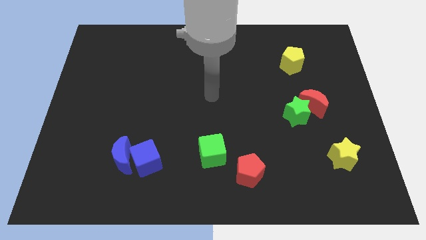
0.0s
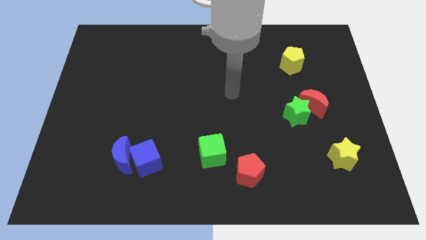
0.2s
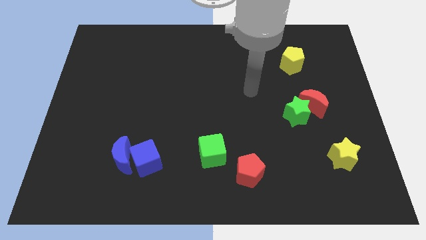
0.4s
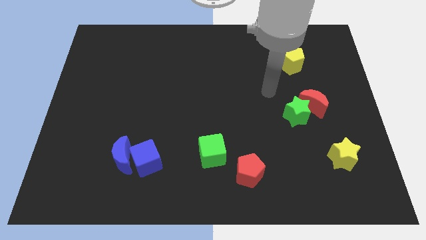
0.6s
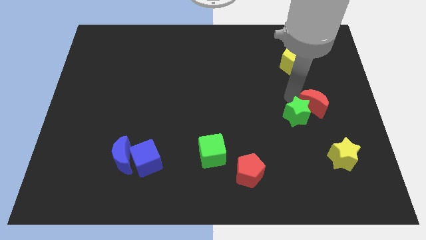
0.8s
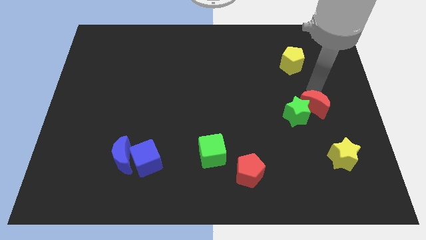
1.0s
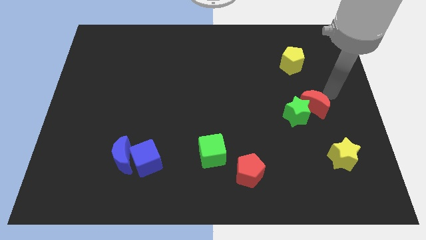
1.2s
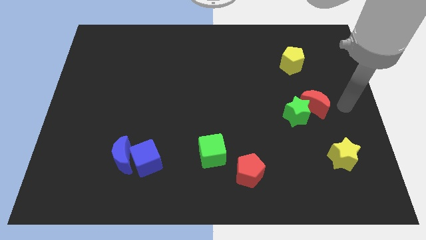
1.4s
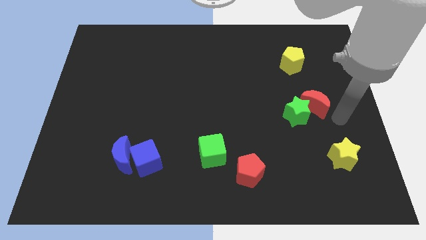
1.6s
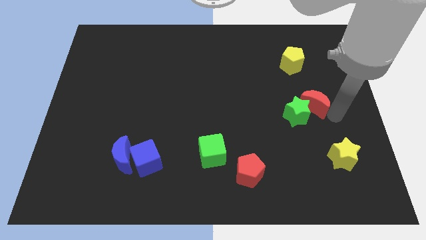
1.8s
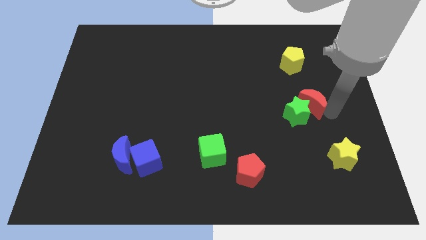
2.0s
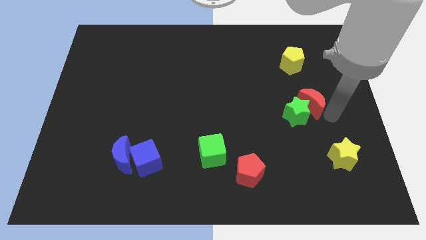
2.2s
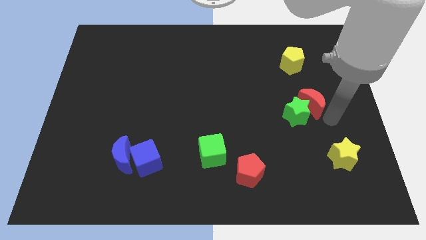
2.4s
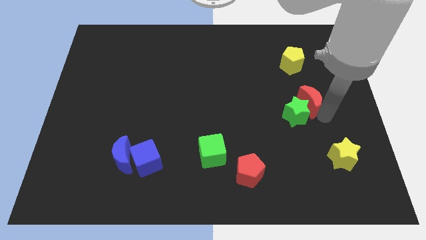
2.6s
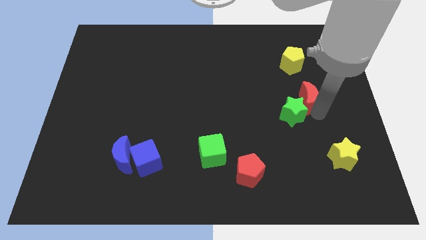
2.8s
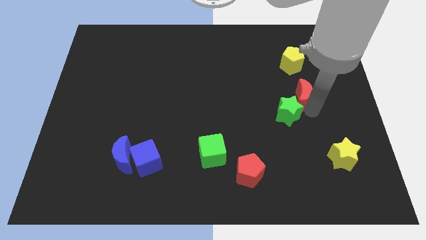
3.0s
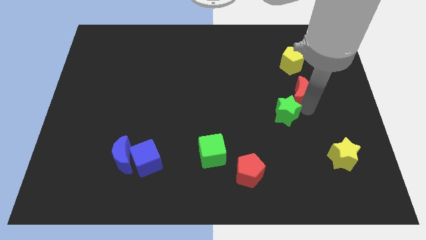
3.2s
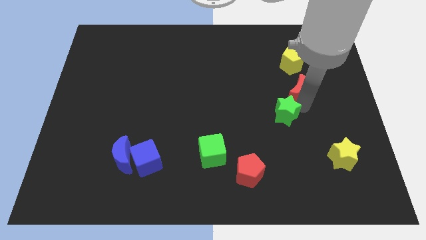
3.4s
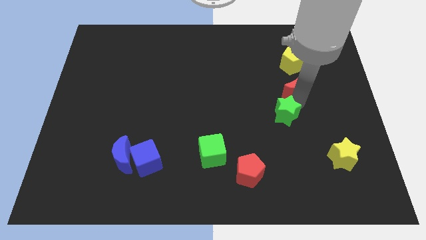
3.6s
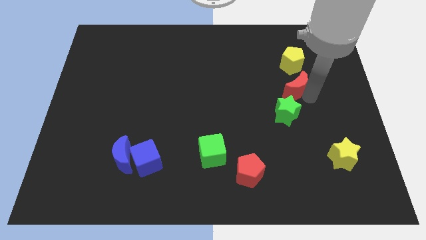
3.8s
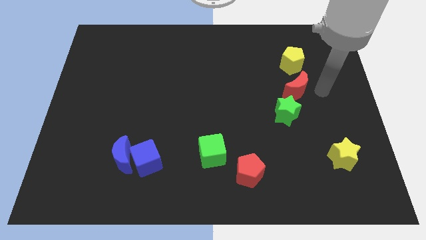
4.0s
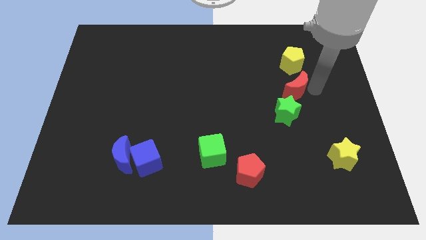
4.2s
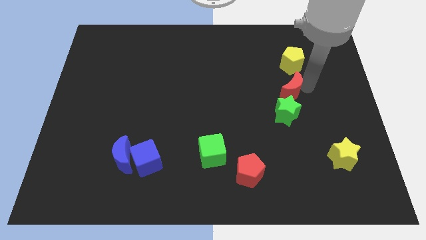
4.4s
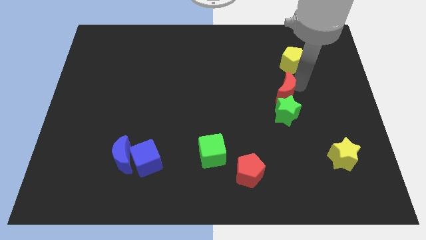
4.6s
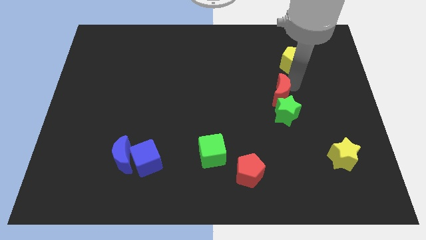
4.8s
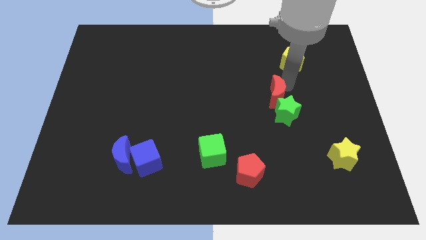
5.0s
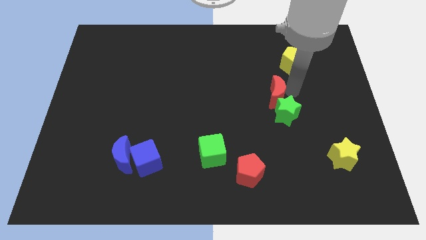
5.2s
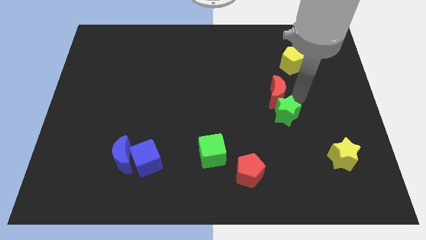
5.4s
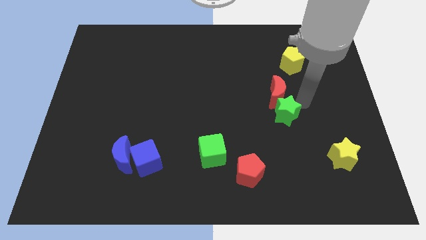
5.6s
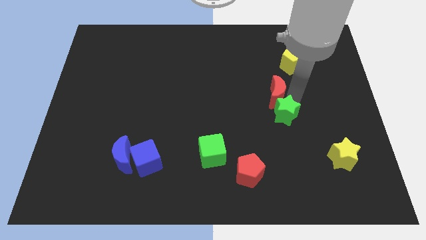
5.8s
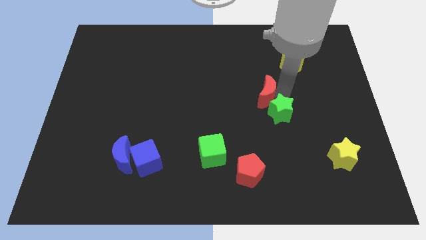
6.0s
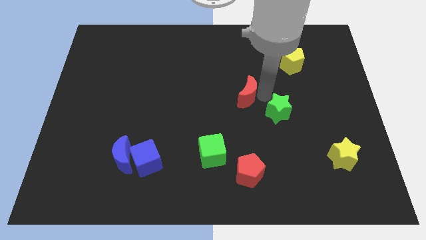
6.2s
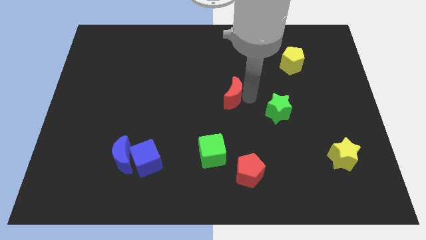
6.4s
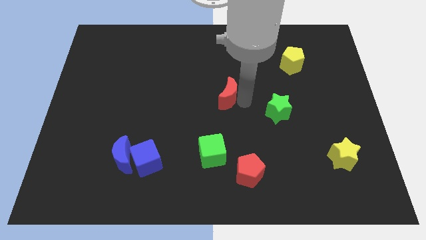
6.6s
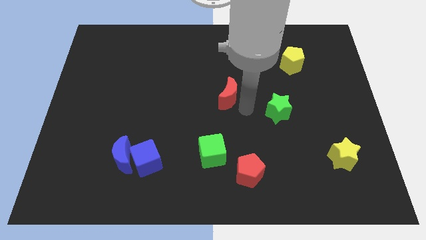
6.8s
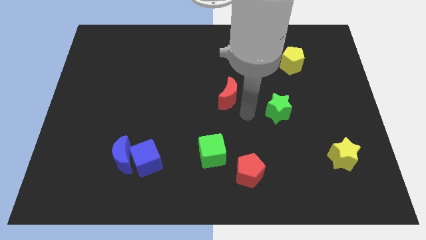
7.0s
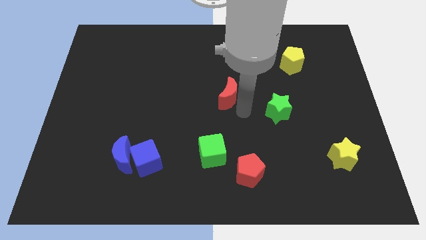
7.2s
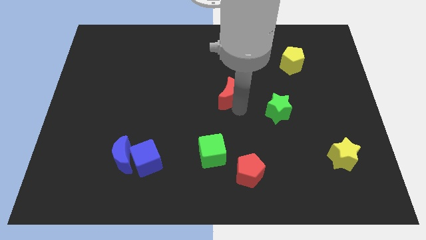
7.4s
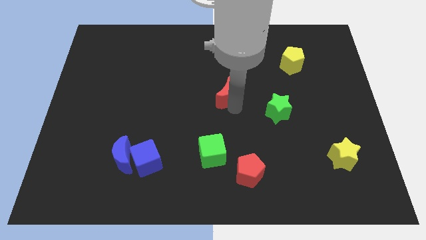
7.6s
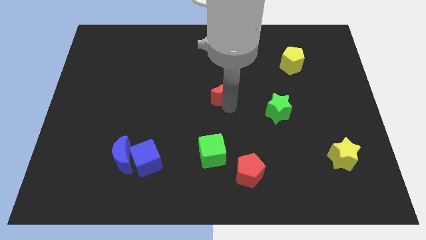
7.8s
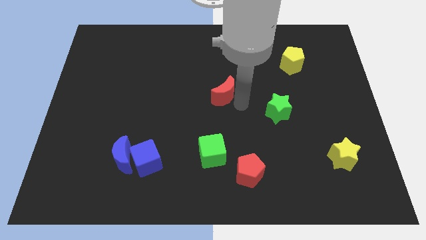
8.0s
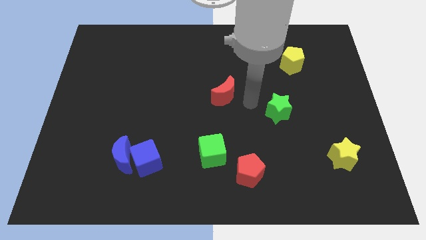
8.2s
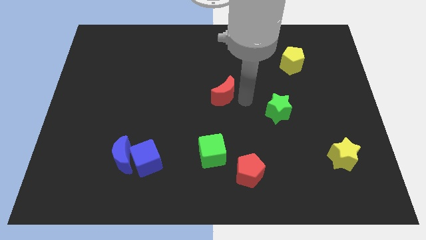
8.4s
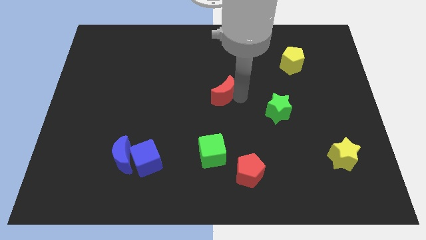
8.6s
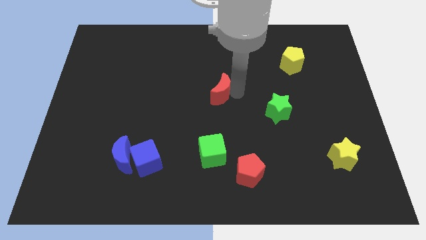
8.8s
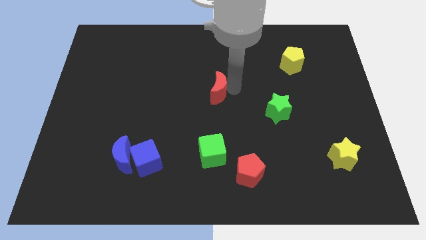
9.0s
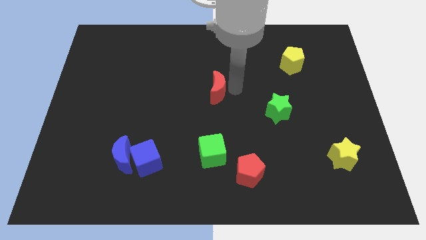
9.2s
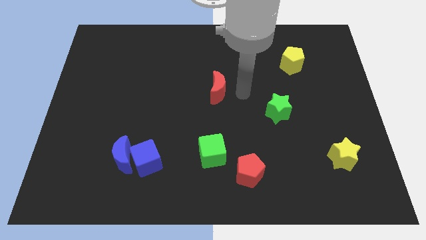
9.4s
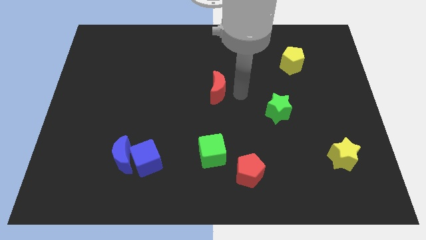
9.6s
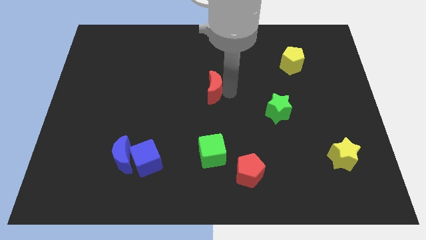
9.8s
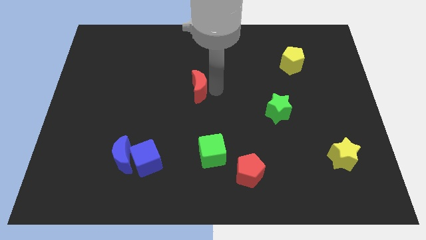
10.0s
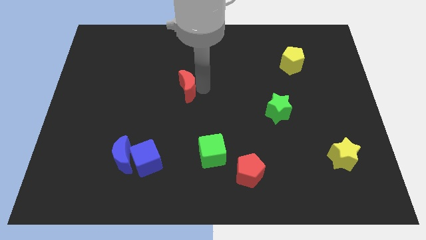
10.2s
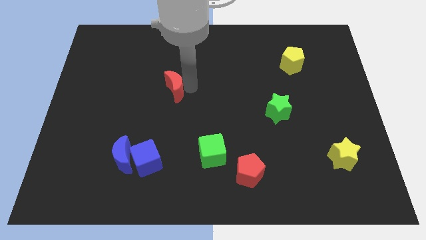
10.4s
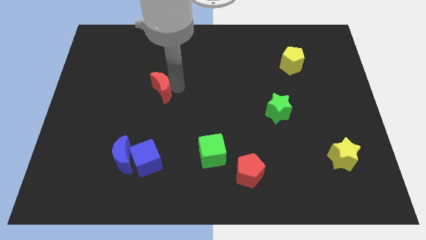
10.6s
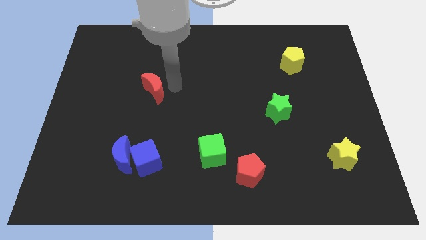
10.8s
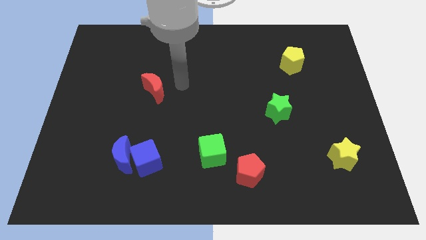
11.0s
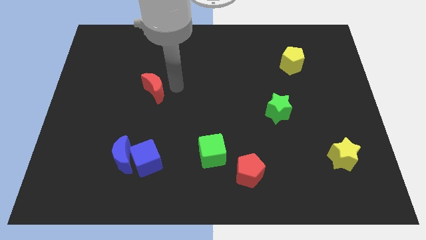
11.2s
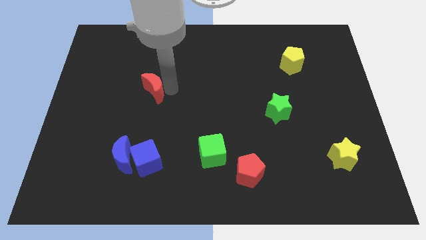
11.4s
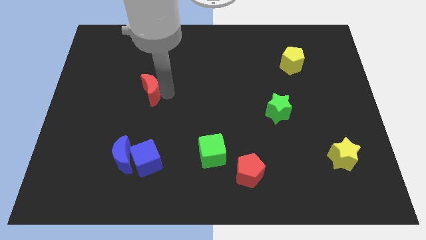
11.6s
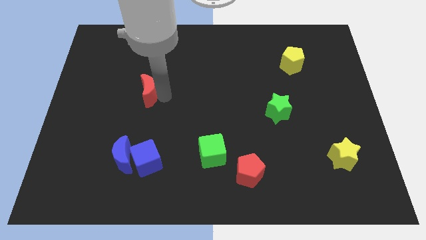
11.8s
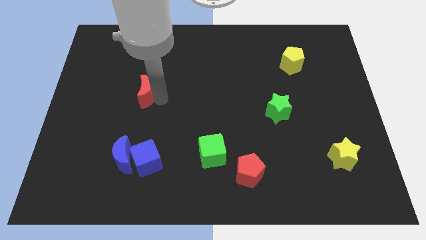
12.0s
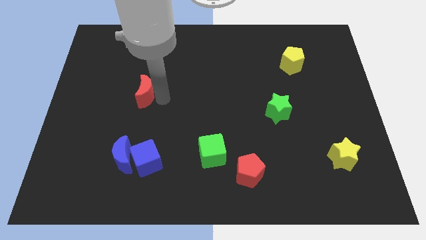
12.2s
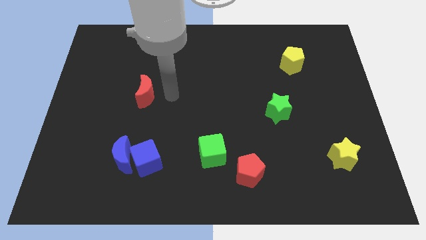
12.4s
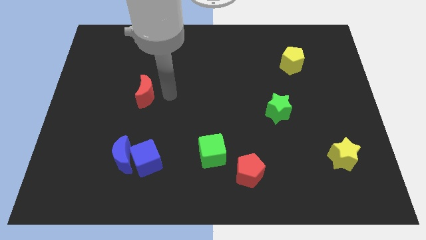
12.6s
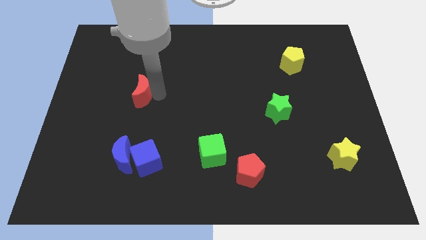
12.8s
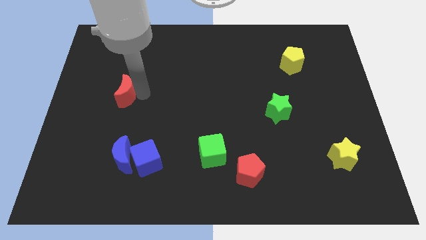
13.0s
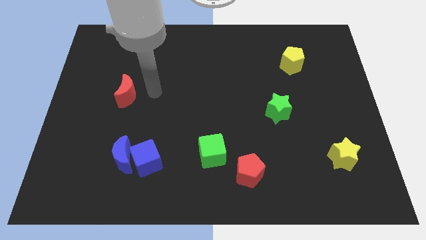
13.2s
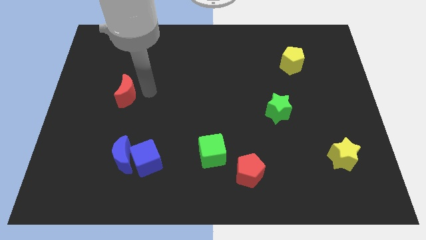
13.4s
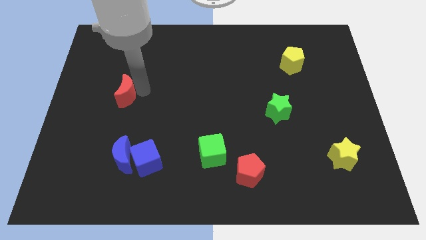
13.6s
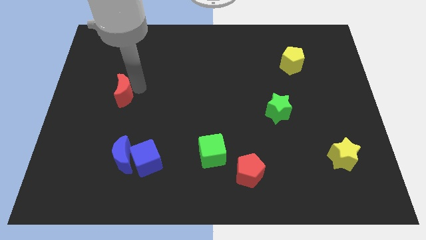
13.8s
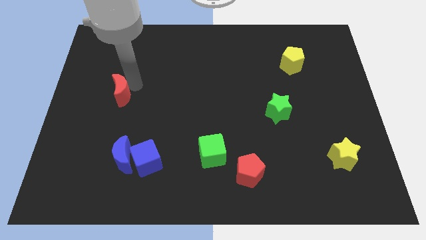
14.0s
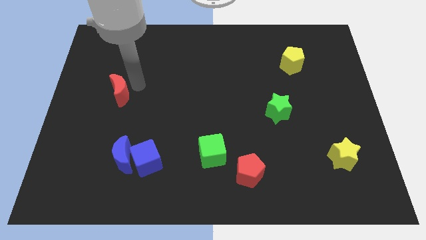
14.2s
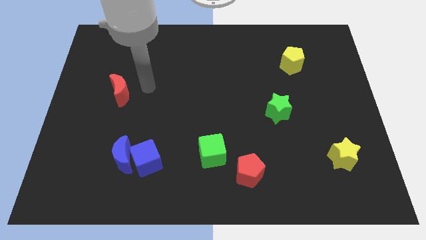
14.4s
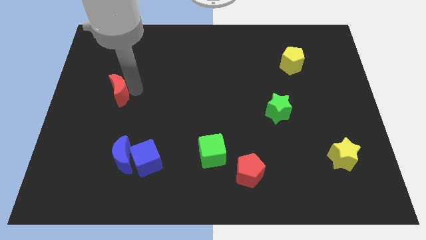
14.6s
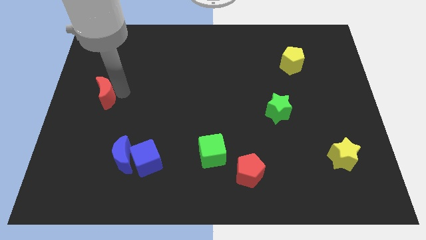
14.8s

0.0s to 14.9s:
put the red moon to the left side of the board
